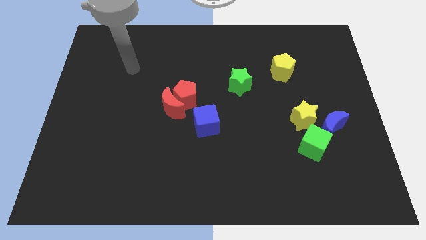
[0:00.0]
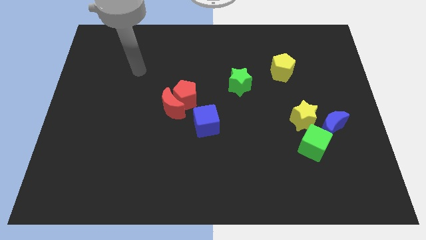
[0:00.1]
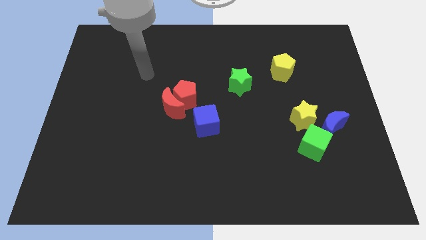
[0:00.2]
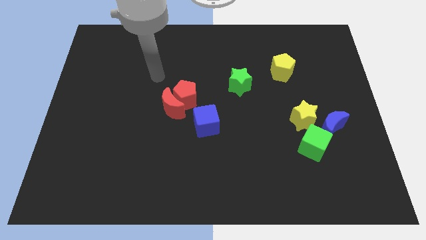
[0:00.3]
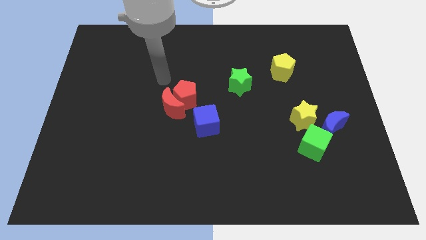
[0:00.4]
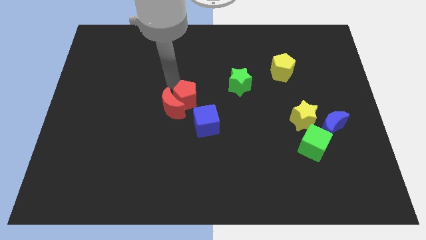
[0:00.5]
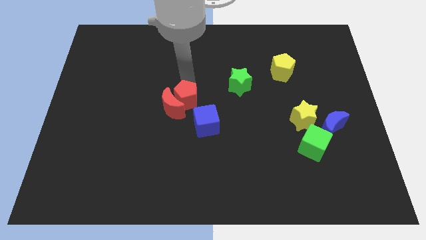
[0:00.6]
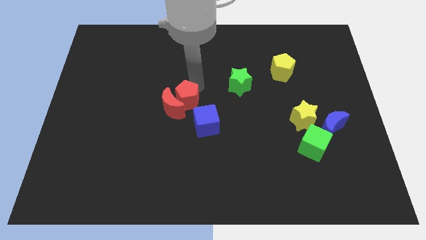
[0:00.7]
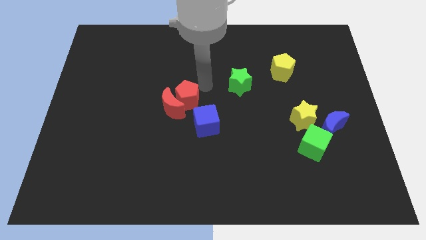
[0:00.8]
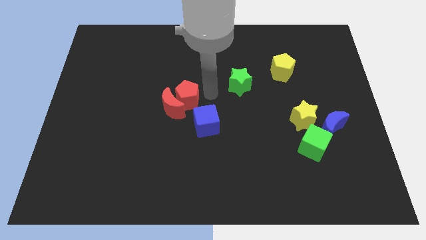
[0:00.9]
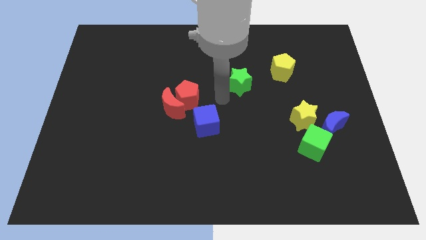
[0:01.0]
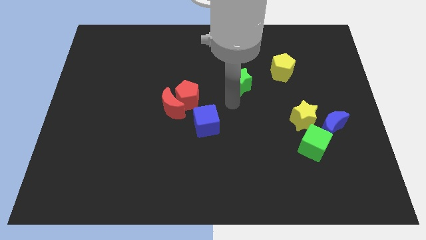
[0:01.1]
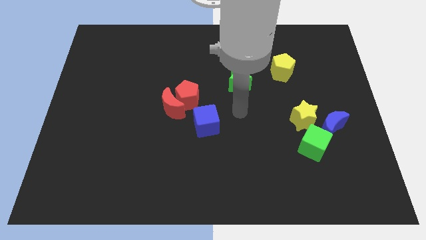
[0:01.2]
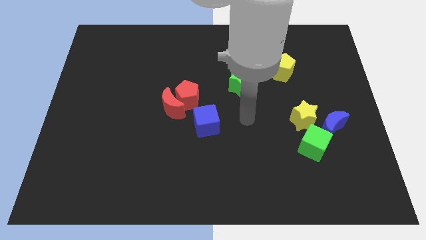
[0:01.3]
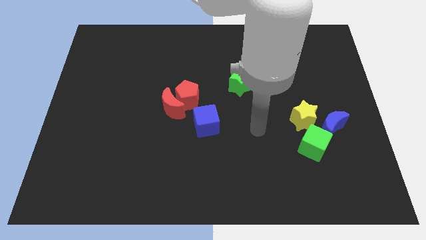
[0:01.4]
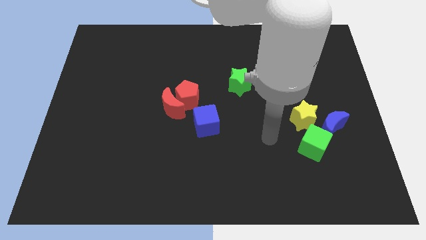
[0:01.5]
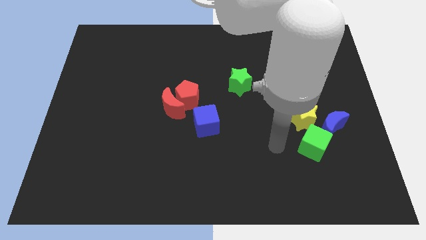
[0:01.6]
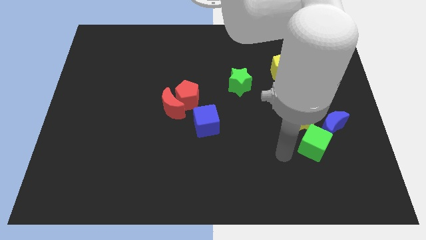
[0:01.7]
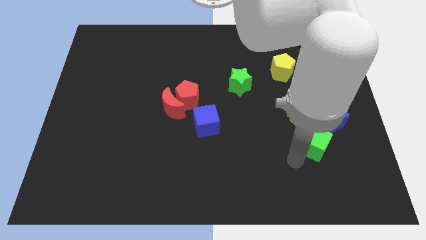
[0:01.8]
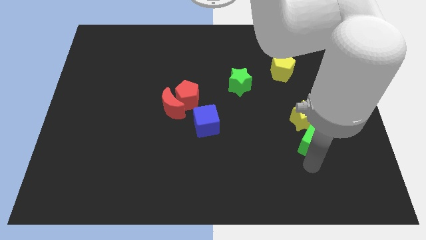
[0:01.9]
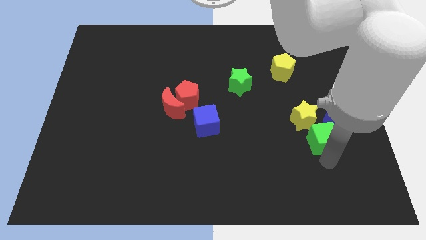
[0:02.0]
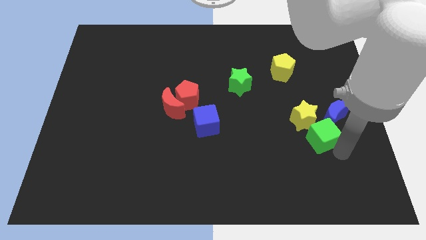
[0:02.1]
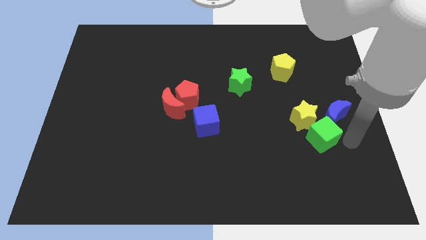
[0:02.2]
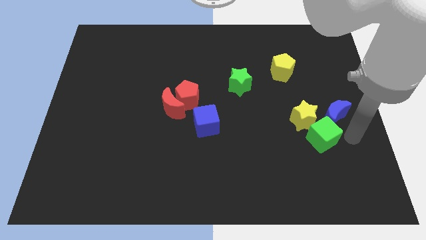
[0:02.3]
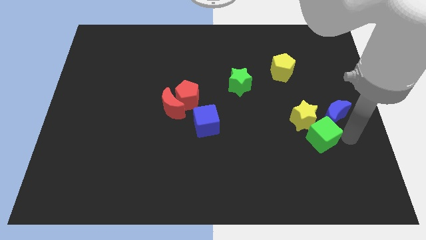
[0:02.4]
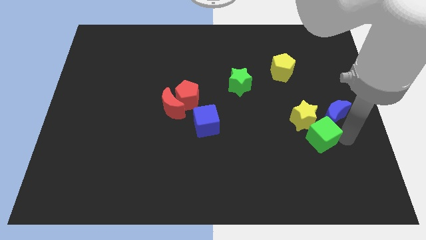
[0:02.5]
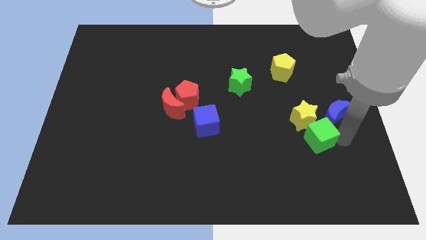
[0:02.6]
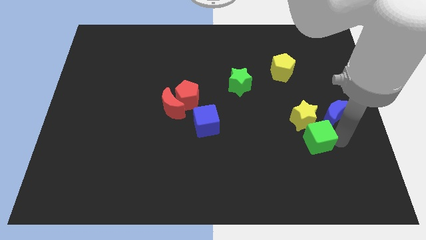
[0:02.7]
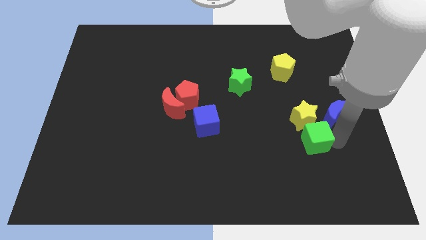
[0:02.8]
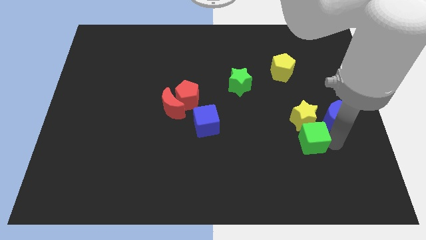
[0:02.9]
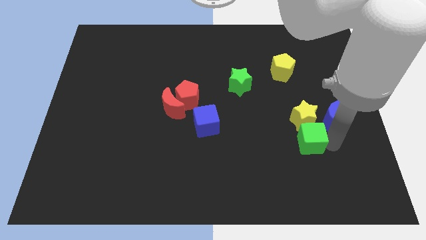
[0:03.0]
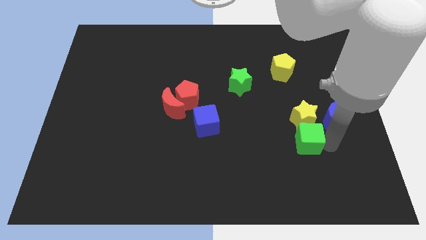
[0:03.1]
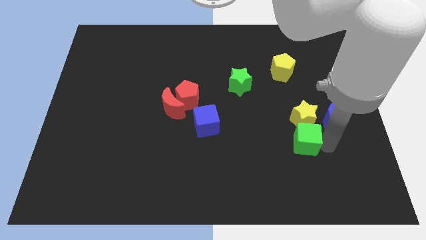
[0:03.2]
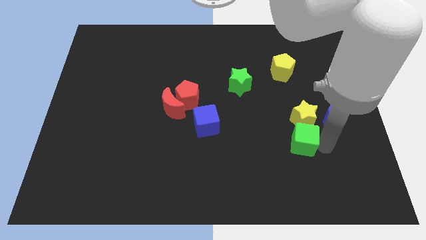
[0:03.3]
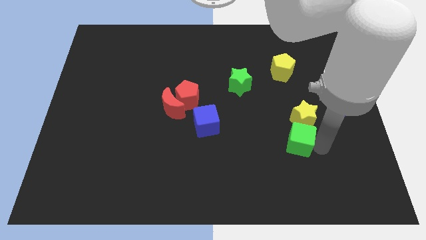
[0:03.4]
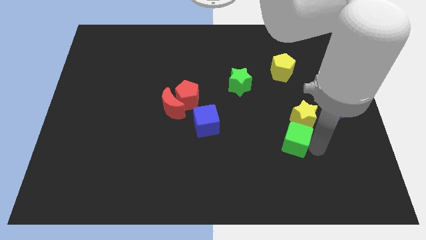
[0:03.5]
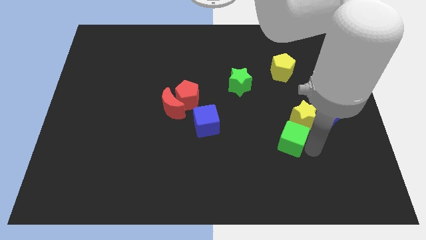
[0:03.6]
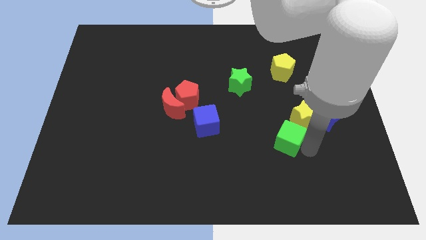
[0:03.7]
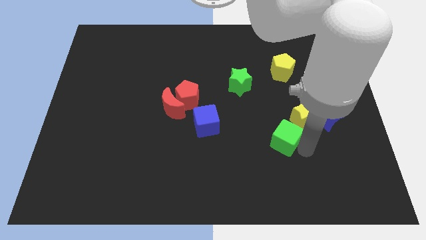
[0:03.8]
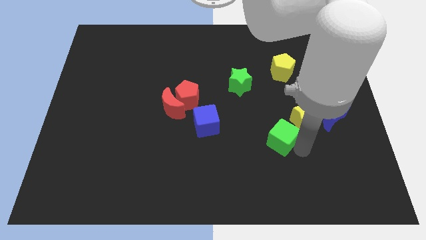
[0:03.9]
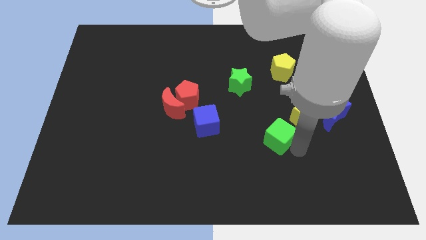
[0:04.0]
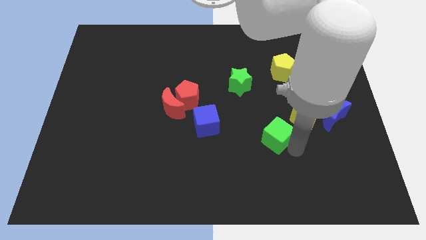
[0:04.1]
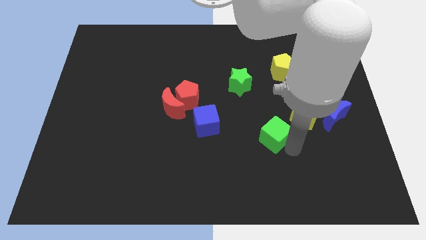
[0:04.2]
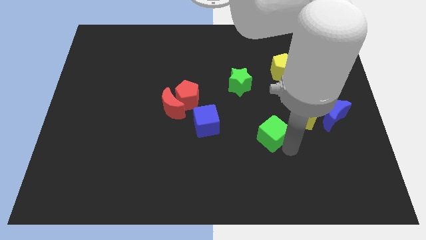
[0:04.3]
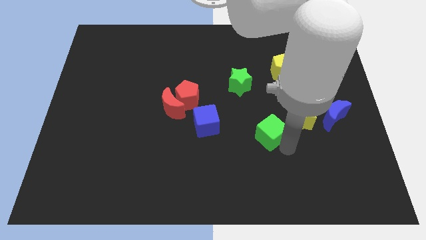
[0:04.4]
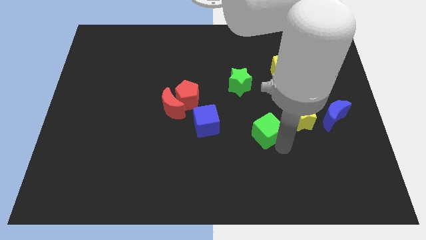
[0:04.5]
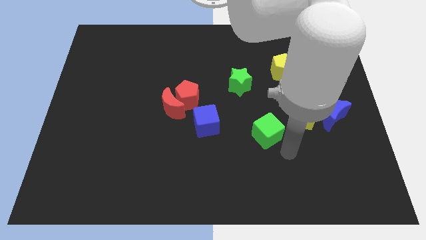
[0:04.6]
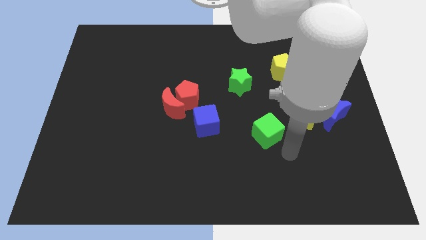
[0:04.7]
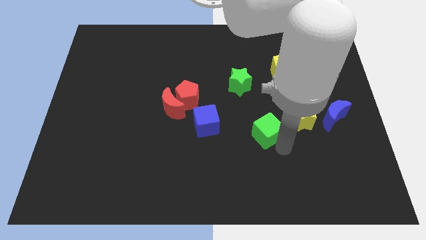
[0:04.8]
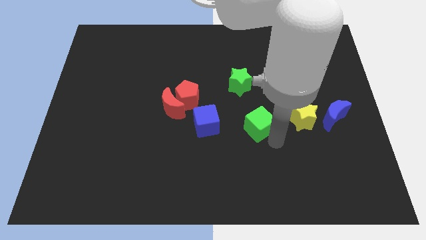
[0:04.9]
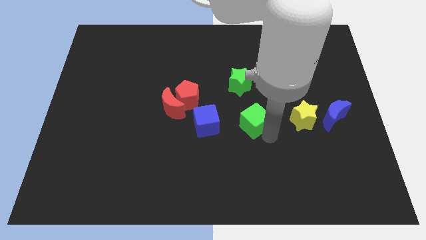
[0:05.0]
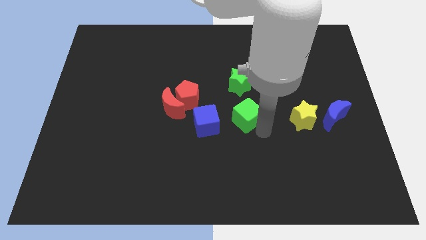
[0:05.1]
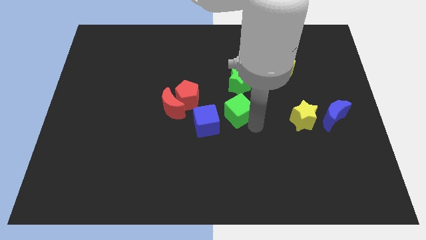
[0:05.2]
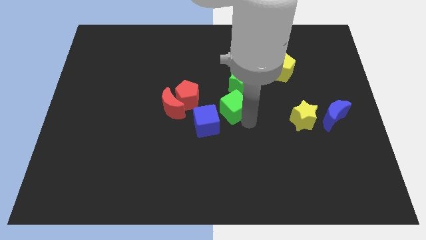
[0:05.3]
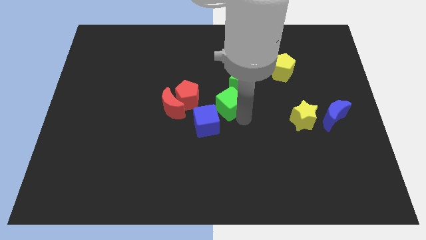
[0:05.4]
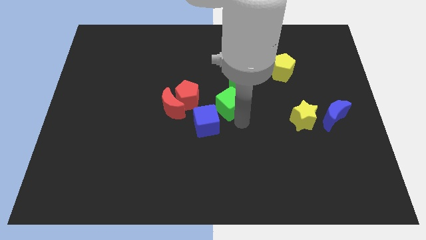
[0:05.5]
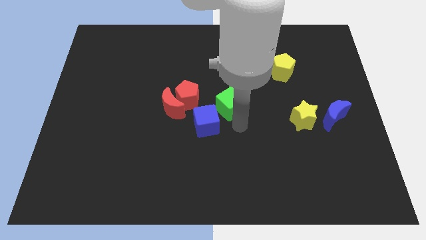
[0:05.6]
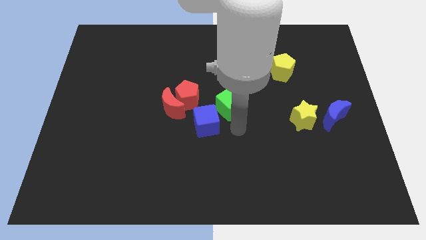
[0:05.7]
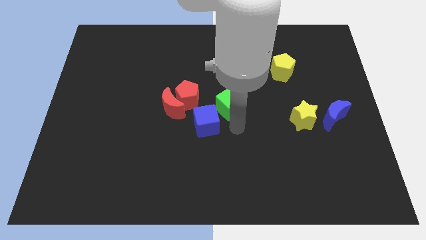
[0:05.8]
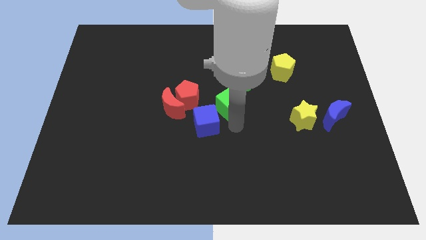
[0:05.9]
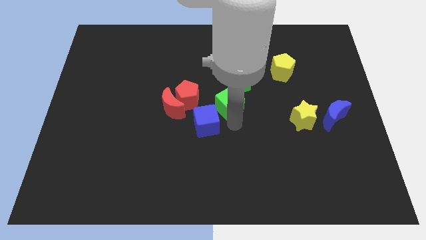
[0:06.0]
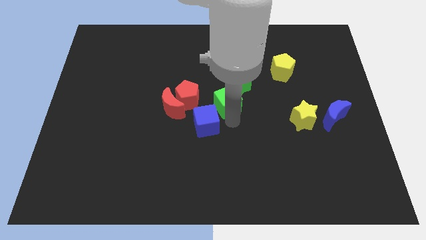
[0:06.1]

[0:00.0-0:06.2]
slide the green cube diagonally up and to the left

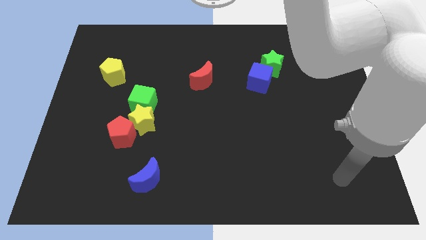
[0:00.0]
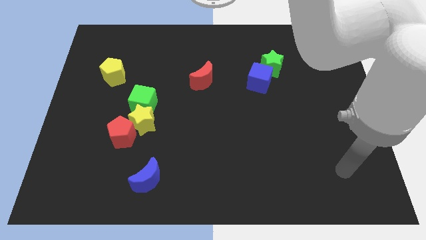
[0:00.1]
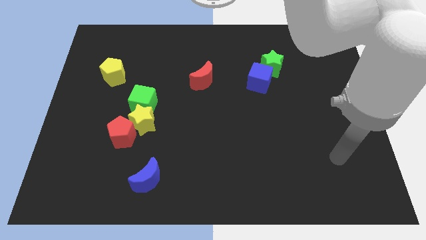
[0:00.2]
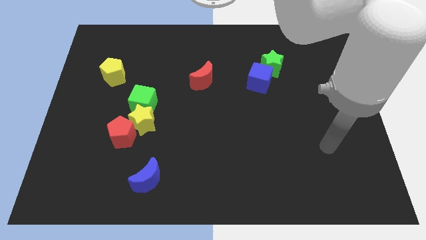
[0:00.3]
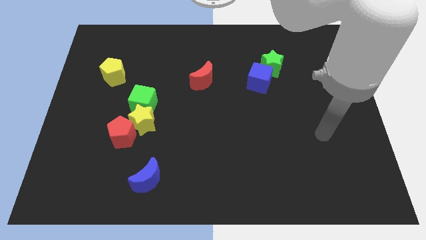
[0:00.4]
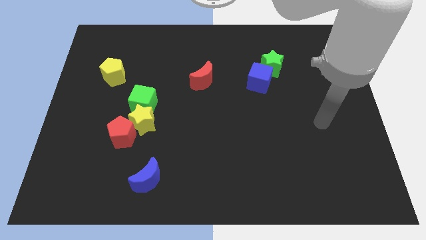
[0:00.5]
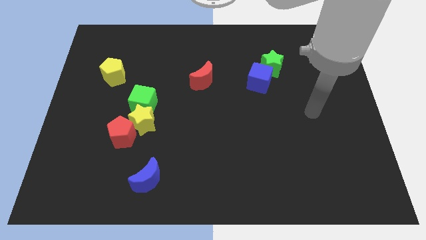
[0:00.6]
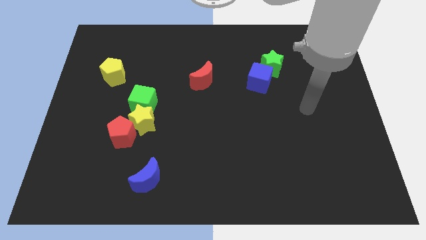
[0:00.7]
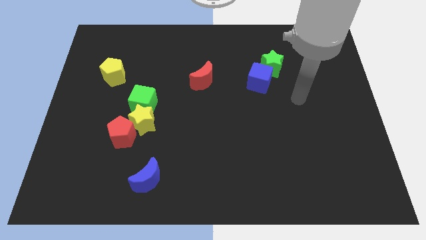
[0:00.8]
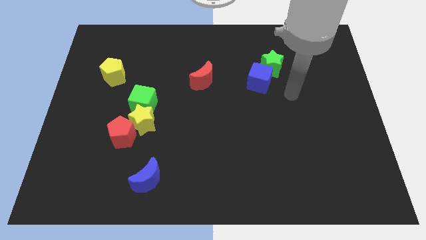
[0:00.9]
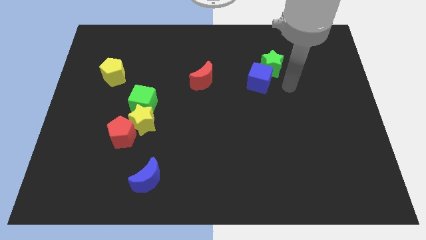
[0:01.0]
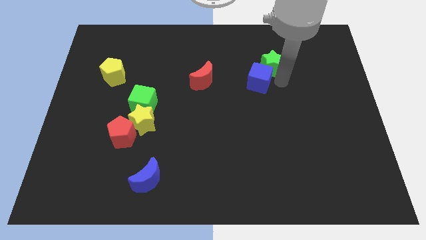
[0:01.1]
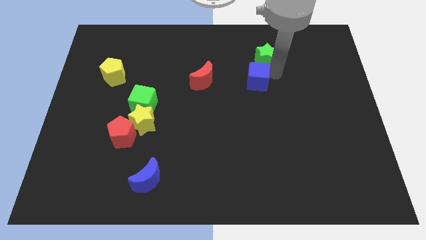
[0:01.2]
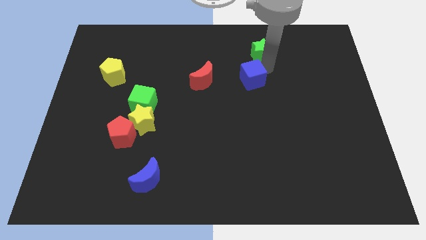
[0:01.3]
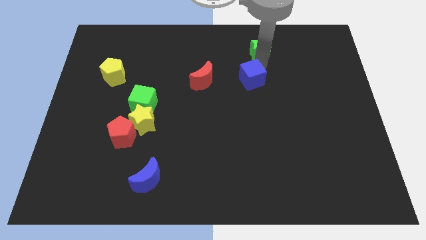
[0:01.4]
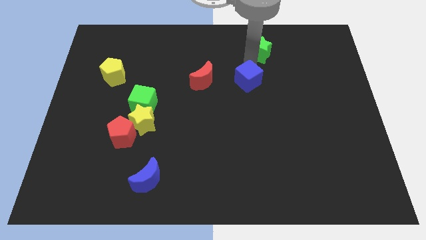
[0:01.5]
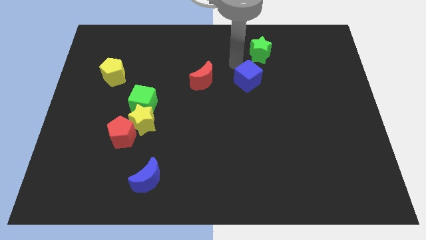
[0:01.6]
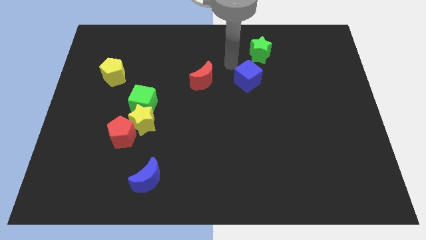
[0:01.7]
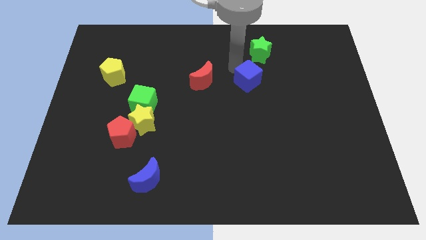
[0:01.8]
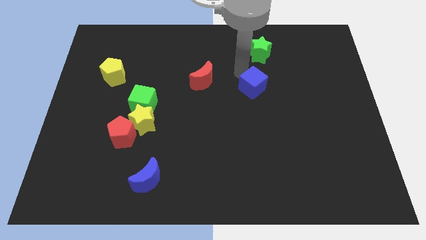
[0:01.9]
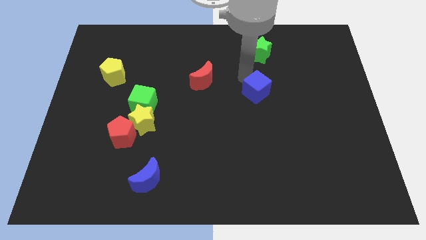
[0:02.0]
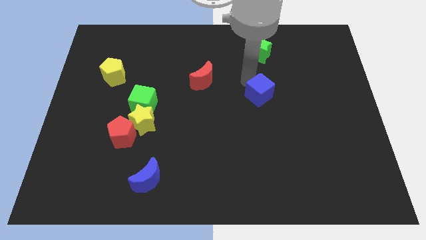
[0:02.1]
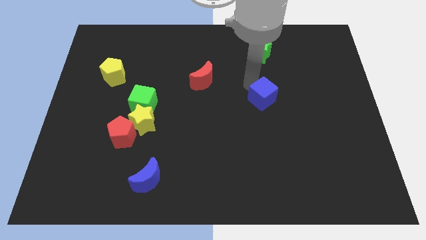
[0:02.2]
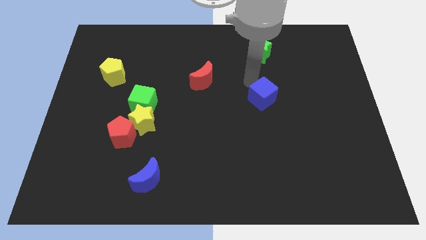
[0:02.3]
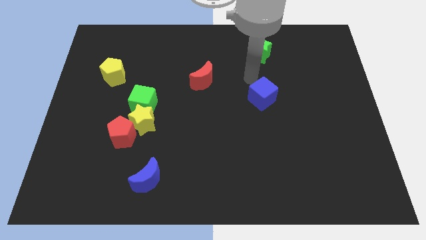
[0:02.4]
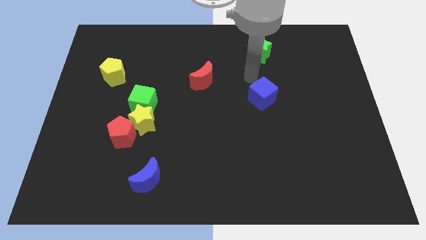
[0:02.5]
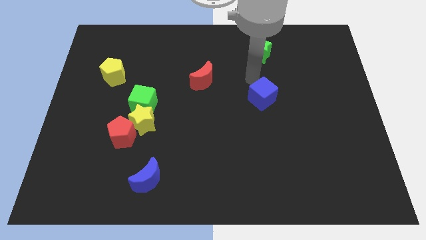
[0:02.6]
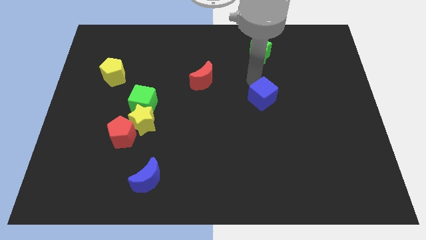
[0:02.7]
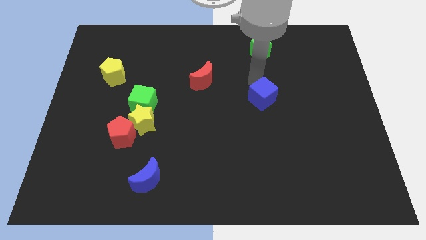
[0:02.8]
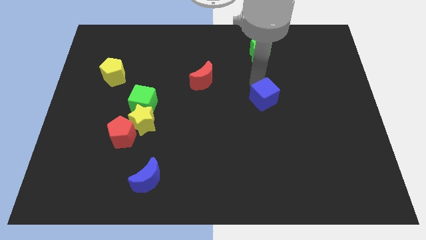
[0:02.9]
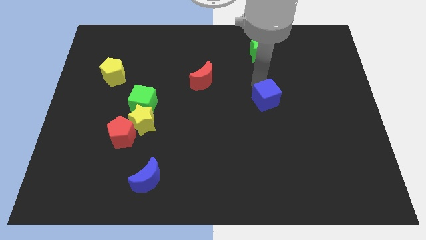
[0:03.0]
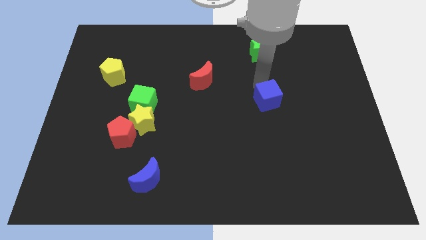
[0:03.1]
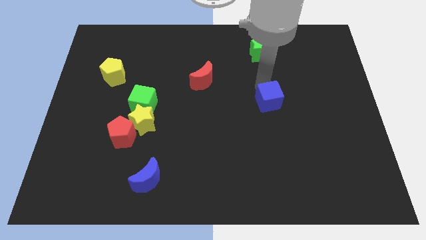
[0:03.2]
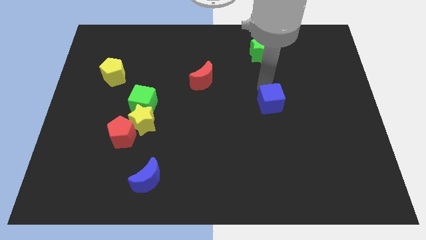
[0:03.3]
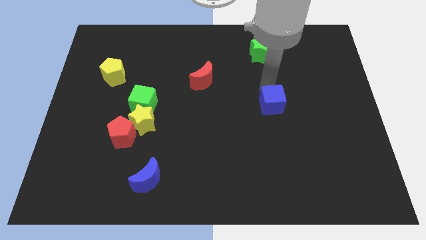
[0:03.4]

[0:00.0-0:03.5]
move the blue cube slightly down
